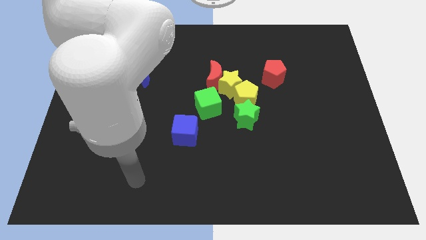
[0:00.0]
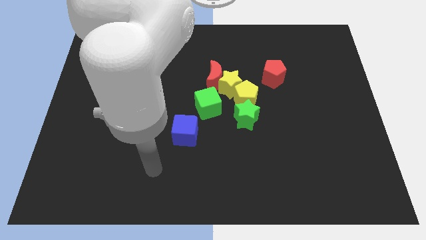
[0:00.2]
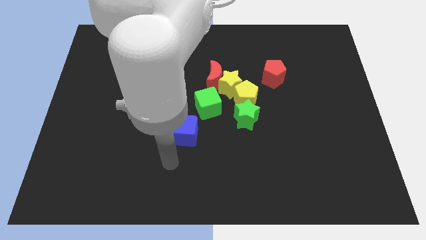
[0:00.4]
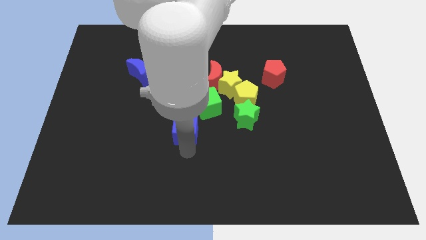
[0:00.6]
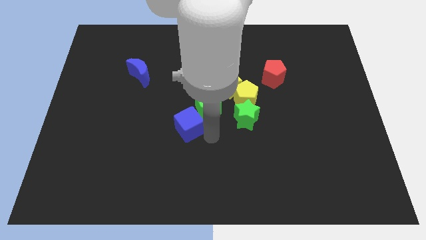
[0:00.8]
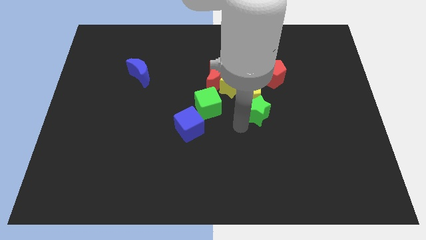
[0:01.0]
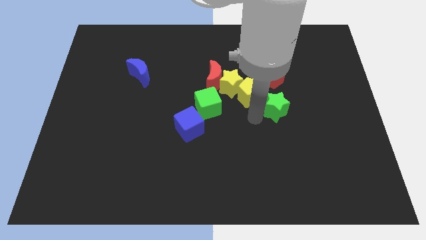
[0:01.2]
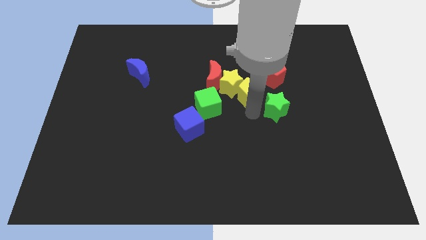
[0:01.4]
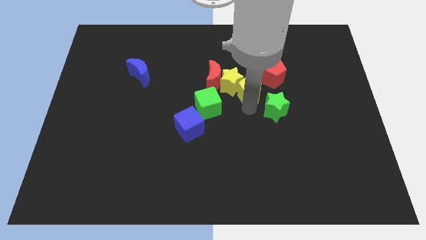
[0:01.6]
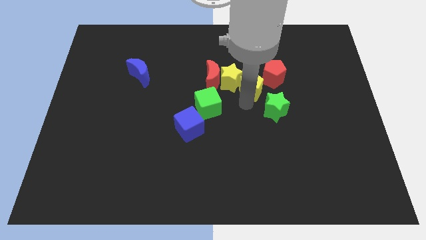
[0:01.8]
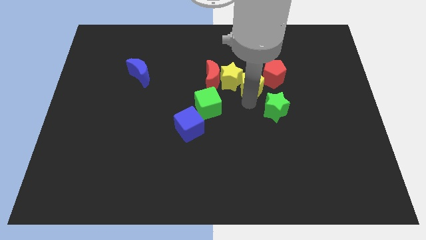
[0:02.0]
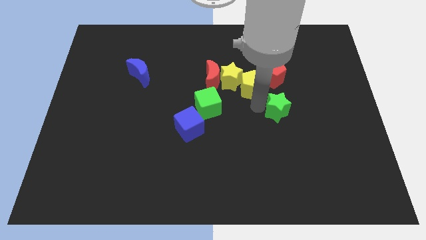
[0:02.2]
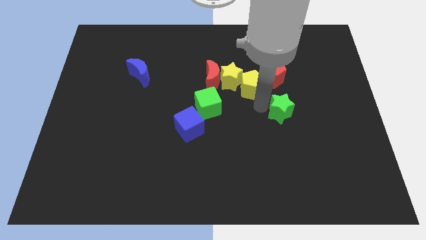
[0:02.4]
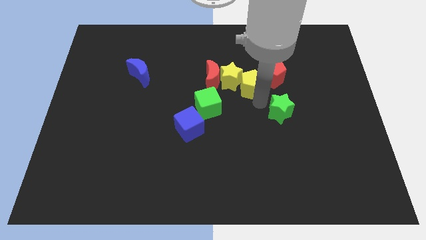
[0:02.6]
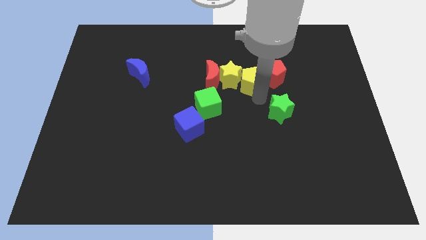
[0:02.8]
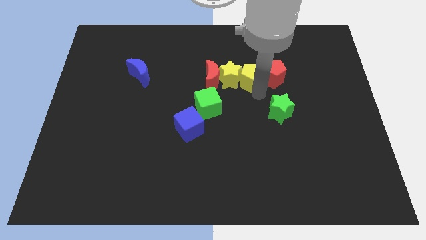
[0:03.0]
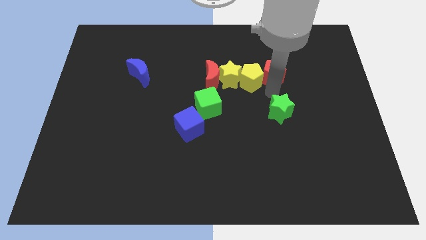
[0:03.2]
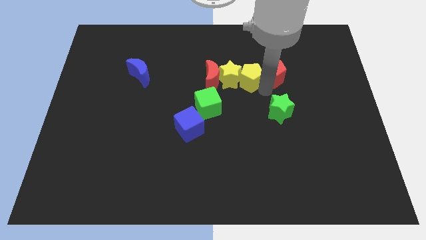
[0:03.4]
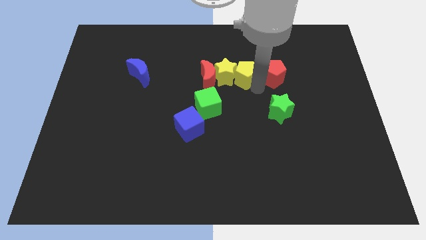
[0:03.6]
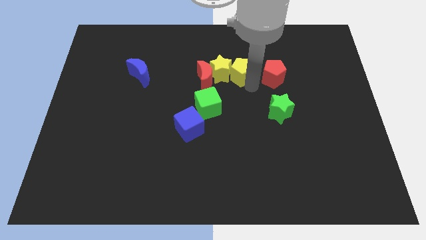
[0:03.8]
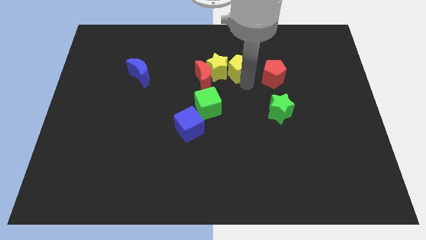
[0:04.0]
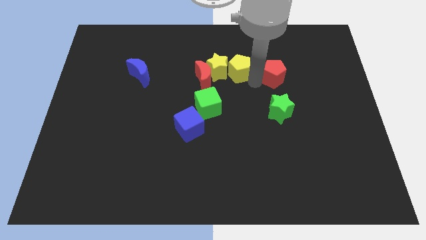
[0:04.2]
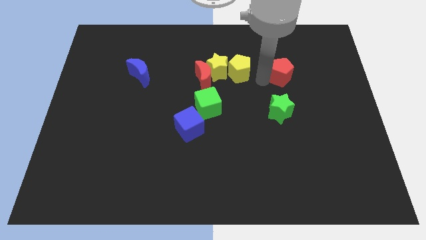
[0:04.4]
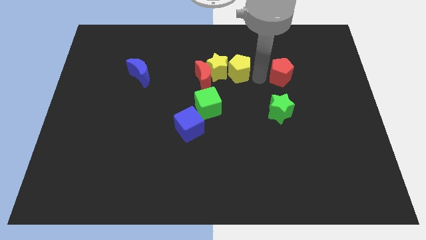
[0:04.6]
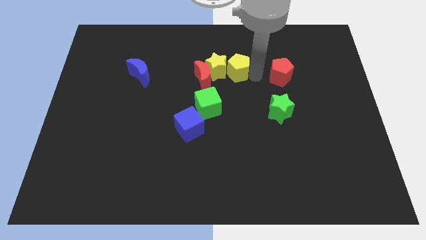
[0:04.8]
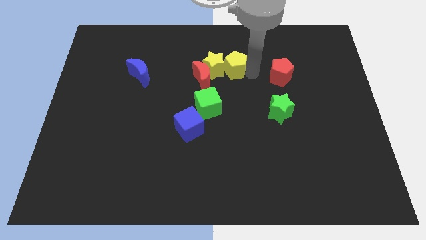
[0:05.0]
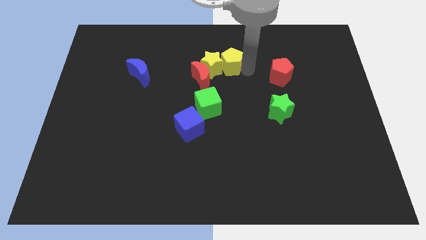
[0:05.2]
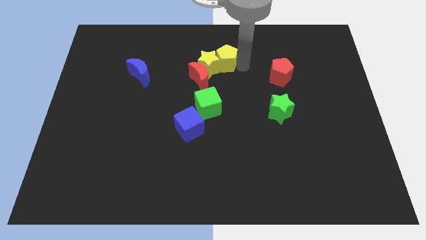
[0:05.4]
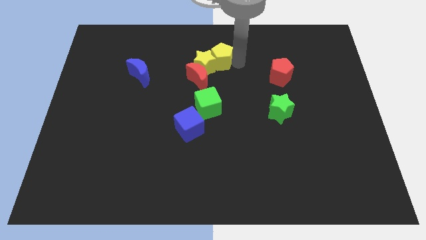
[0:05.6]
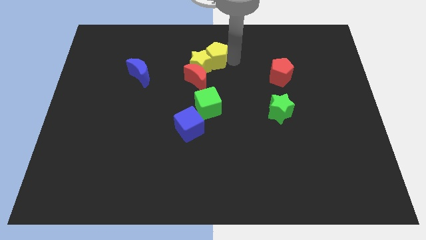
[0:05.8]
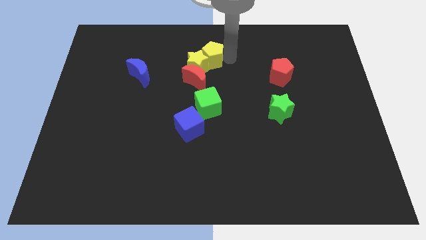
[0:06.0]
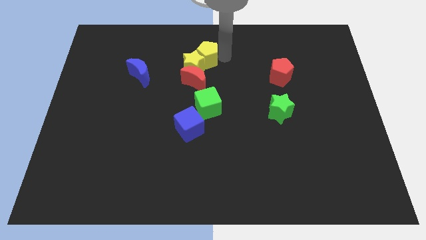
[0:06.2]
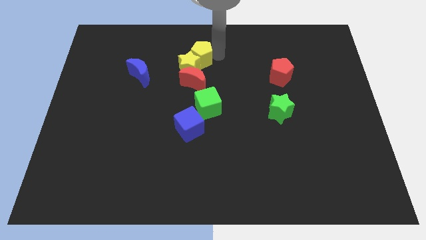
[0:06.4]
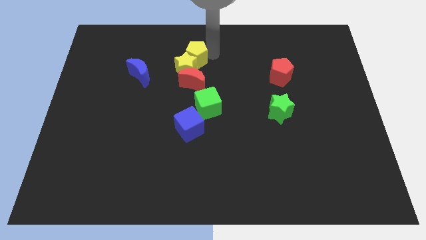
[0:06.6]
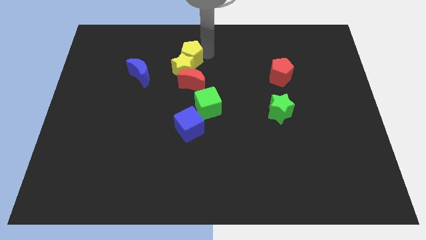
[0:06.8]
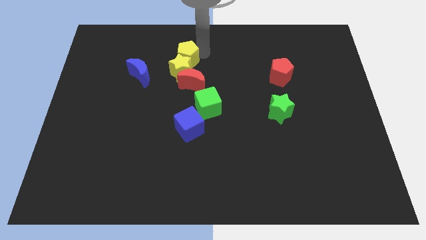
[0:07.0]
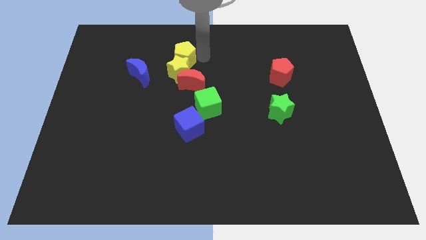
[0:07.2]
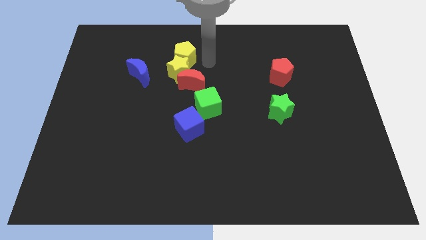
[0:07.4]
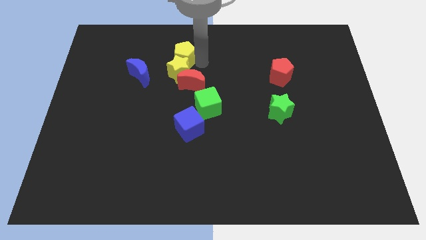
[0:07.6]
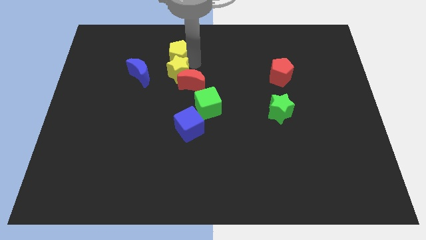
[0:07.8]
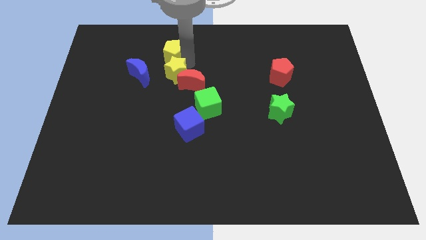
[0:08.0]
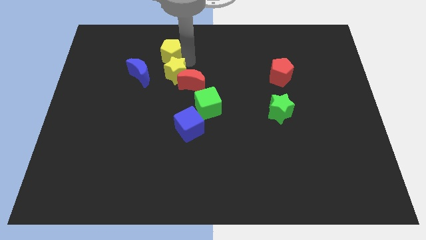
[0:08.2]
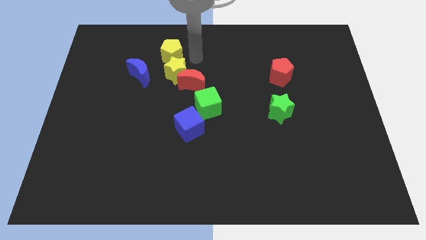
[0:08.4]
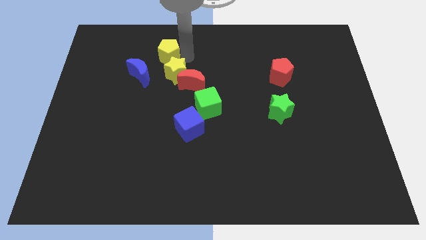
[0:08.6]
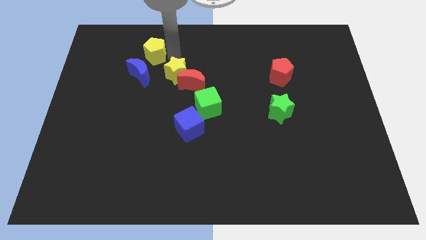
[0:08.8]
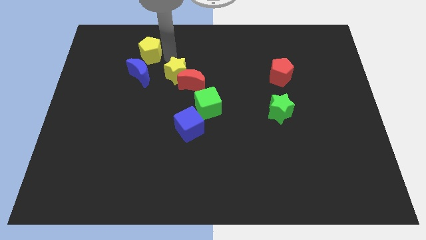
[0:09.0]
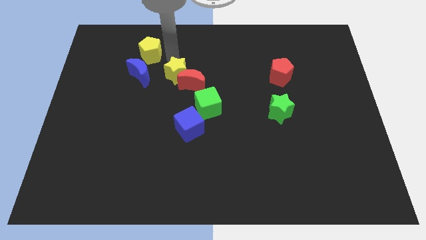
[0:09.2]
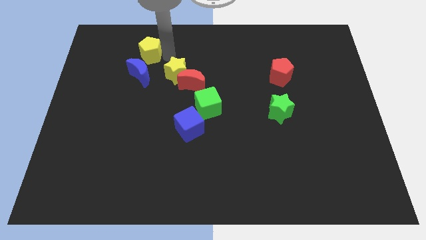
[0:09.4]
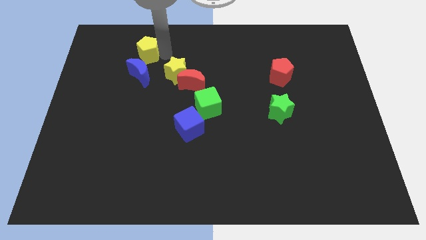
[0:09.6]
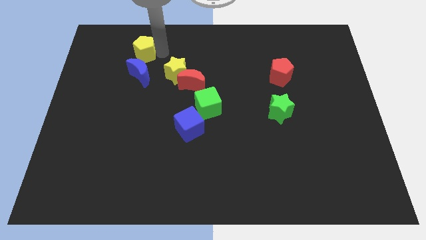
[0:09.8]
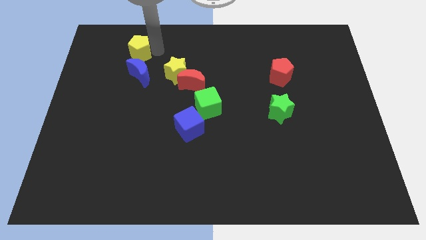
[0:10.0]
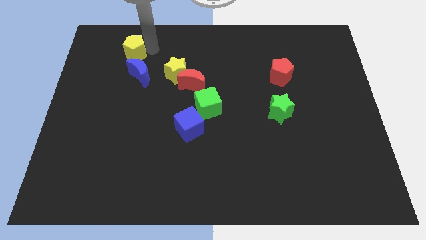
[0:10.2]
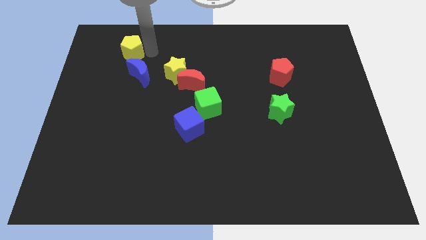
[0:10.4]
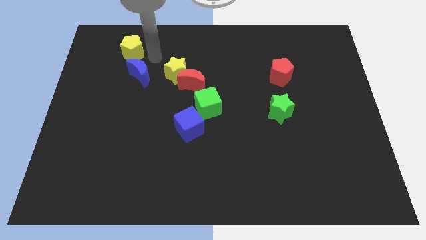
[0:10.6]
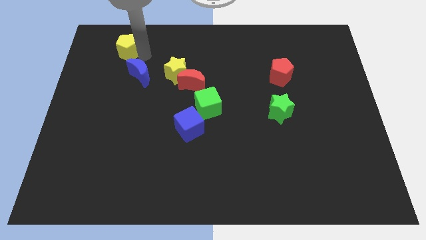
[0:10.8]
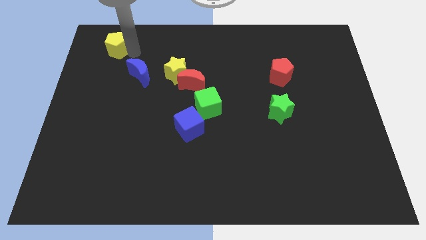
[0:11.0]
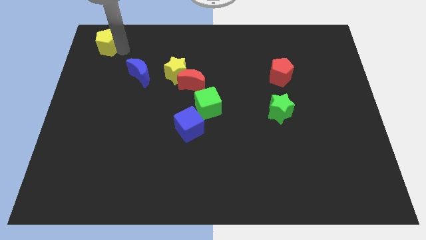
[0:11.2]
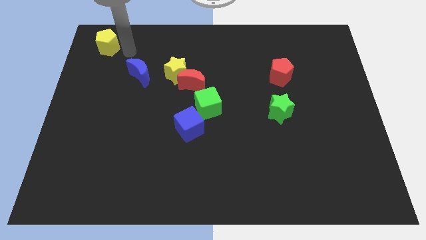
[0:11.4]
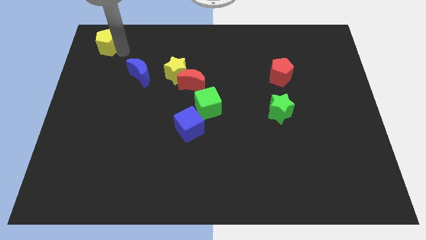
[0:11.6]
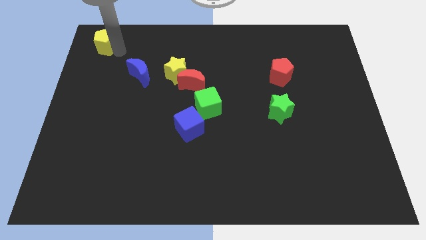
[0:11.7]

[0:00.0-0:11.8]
move the yellow pentagon to the top left of the board

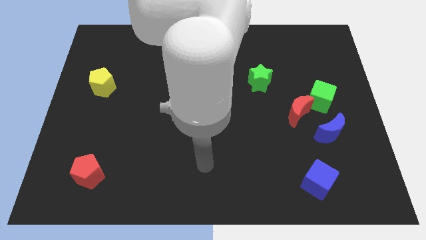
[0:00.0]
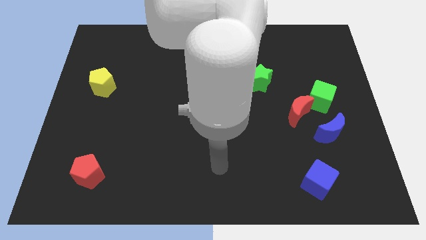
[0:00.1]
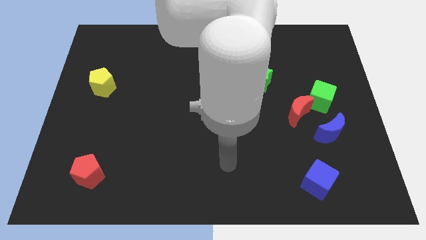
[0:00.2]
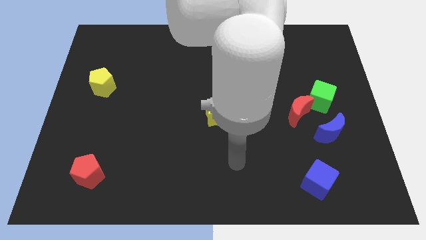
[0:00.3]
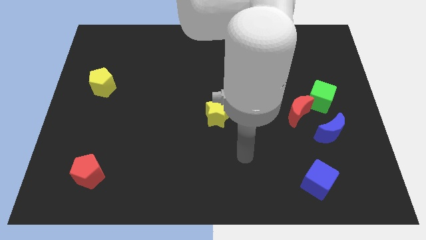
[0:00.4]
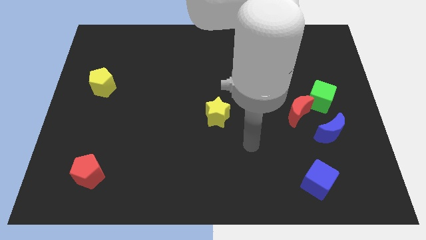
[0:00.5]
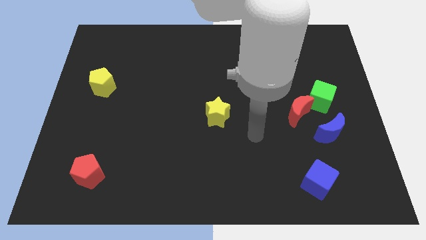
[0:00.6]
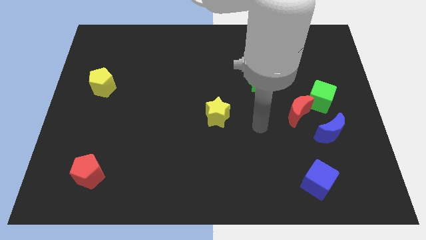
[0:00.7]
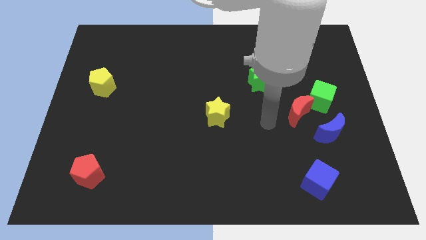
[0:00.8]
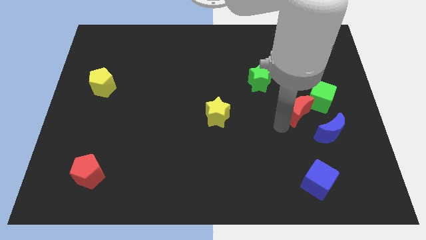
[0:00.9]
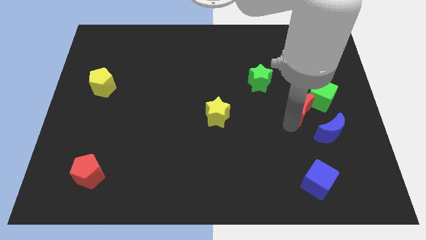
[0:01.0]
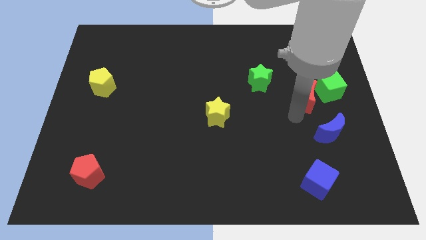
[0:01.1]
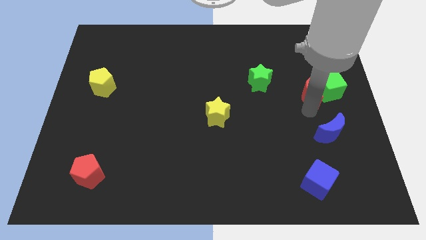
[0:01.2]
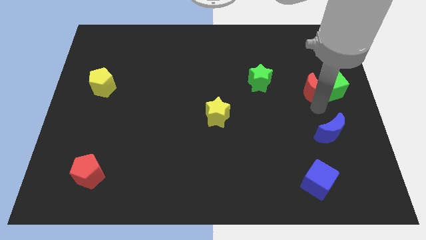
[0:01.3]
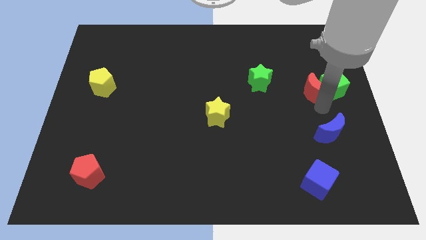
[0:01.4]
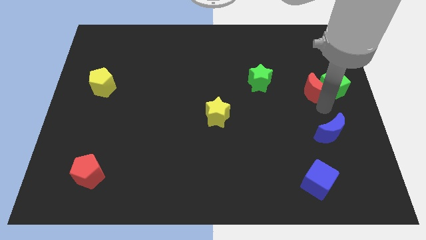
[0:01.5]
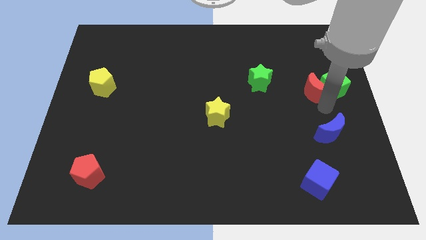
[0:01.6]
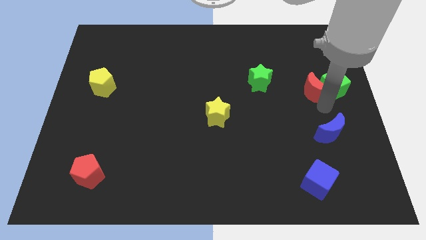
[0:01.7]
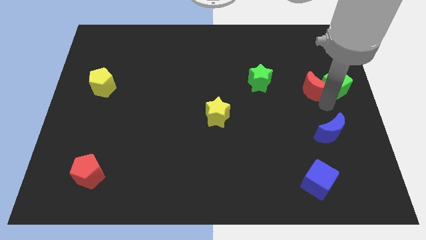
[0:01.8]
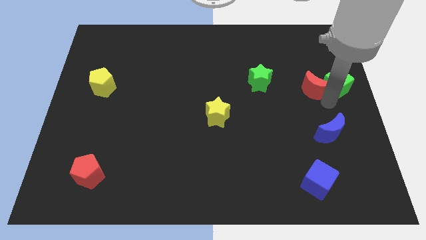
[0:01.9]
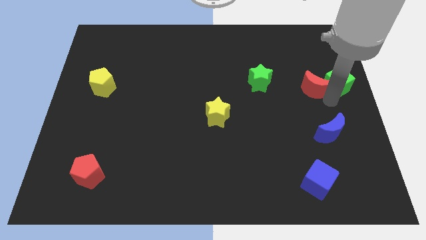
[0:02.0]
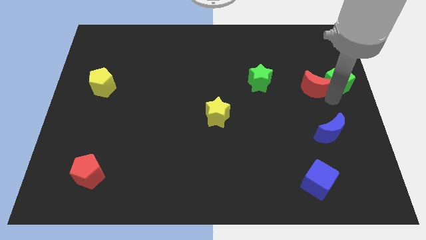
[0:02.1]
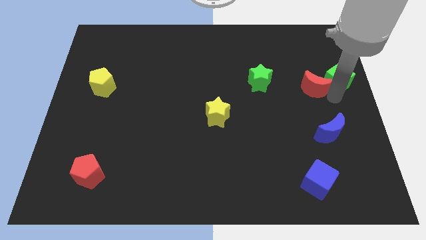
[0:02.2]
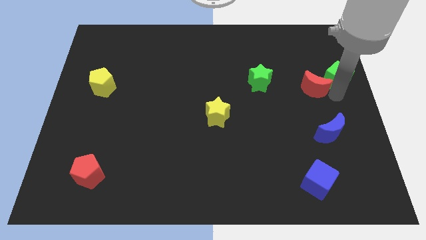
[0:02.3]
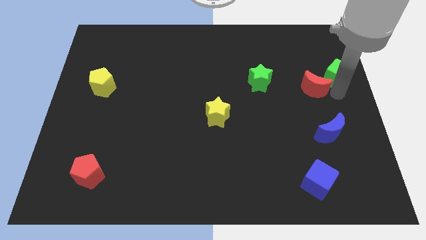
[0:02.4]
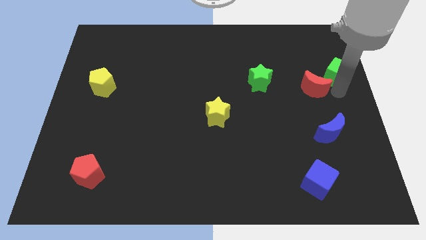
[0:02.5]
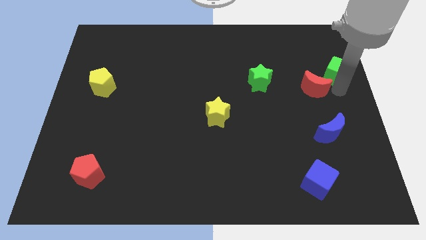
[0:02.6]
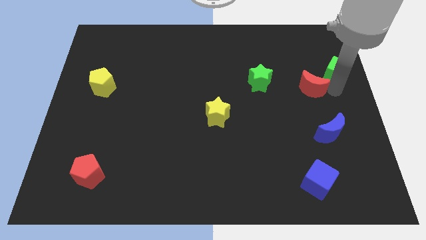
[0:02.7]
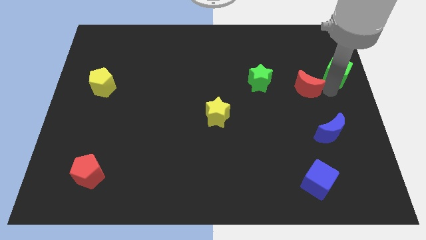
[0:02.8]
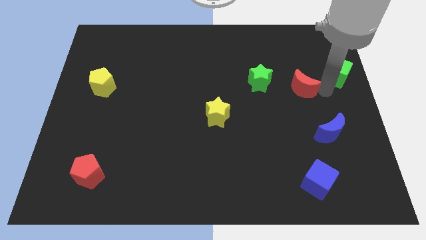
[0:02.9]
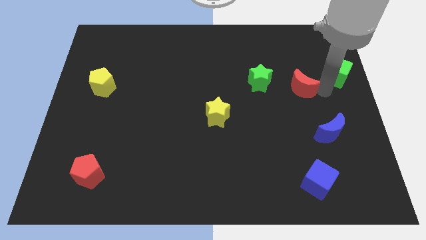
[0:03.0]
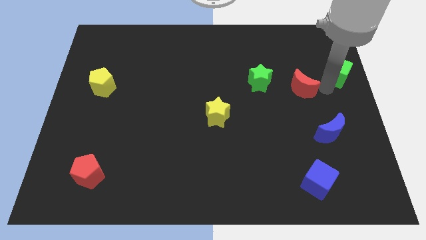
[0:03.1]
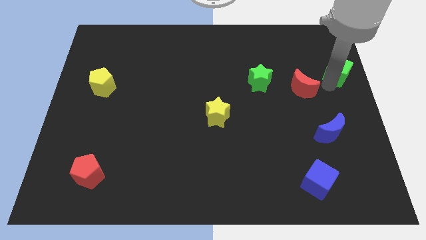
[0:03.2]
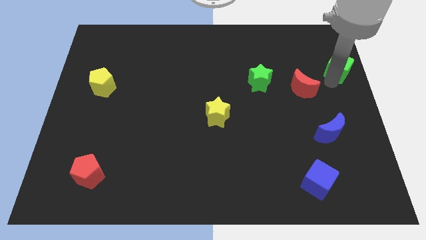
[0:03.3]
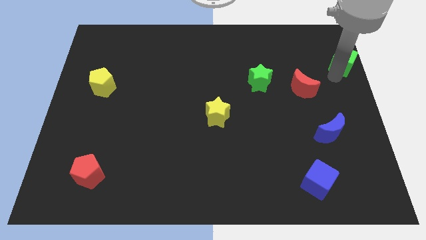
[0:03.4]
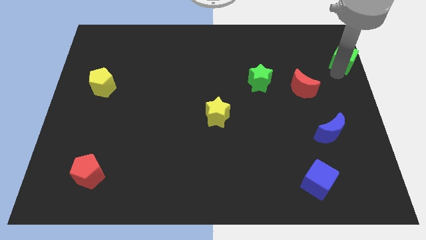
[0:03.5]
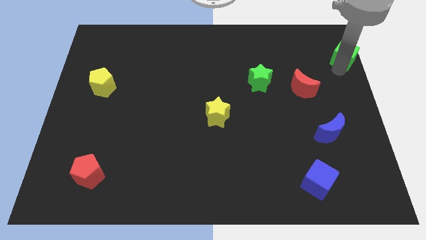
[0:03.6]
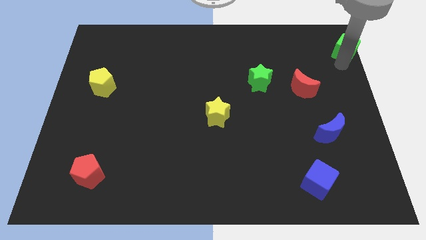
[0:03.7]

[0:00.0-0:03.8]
move the green cube to the top right corner
